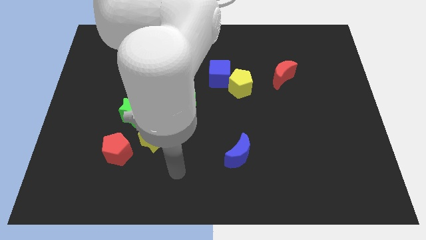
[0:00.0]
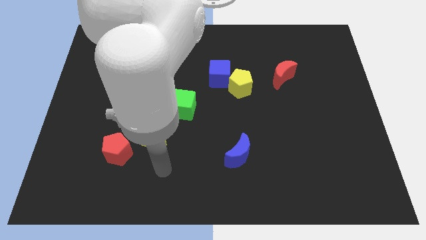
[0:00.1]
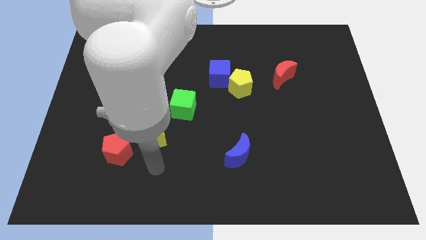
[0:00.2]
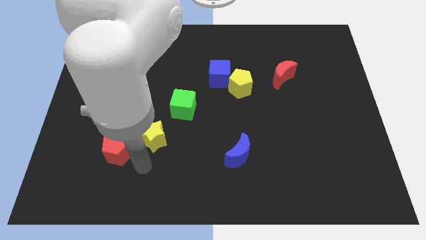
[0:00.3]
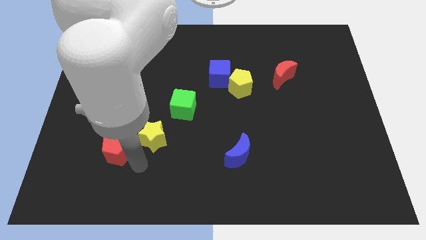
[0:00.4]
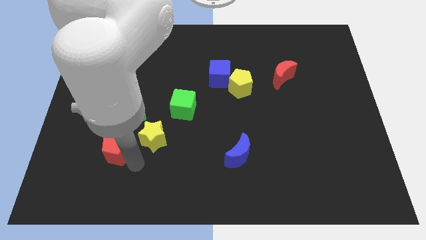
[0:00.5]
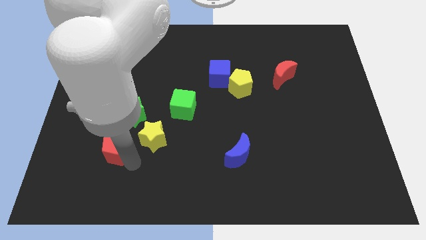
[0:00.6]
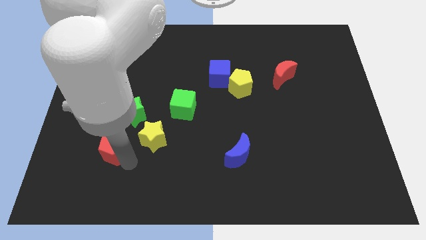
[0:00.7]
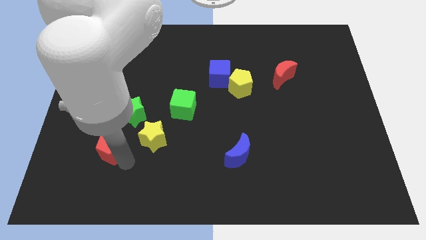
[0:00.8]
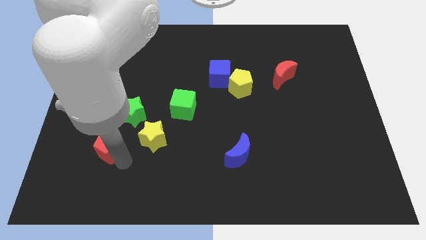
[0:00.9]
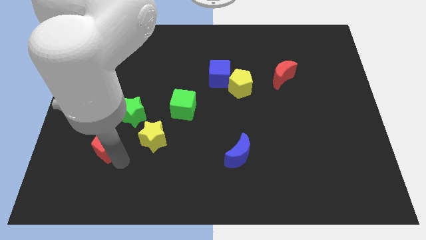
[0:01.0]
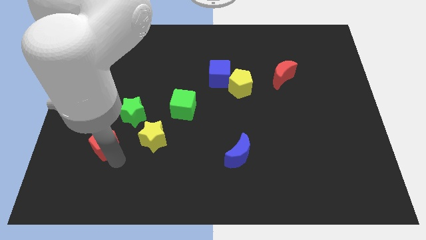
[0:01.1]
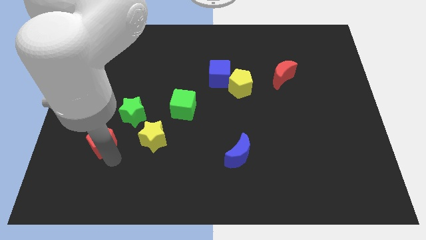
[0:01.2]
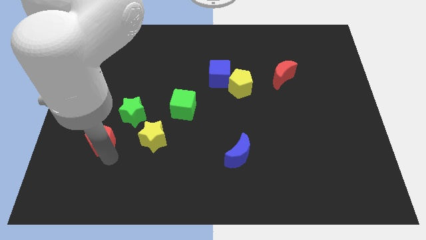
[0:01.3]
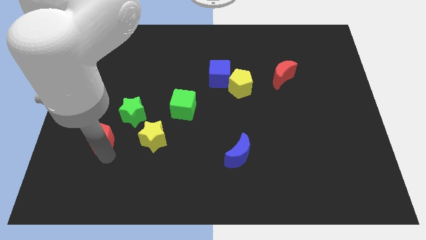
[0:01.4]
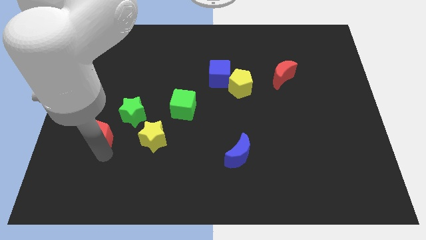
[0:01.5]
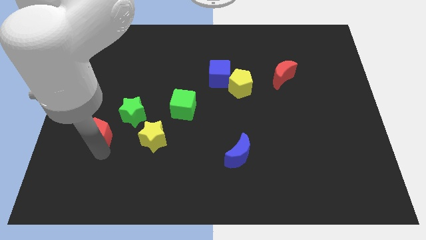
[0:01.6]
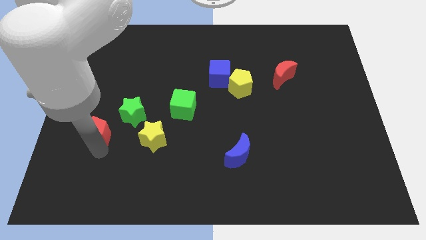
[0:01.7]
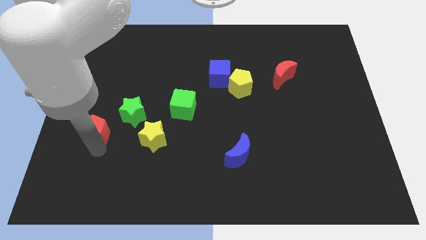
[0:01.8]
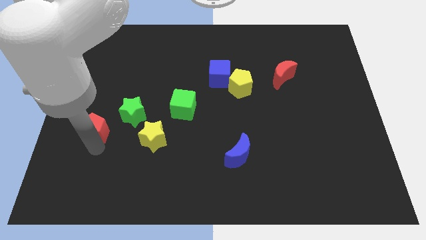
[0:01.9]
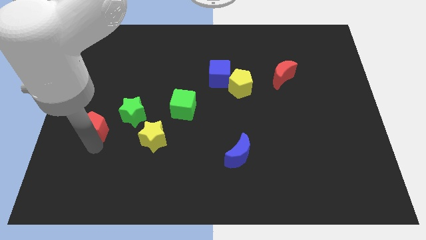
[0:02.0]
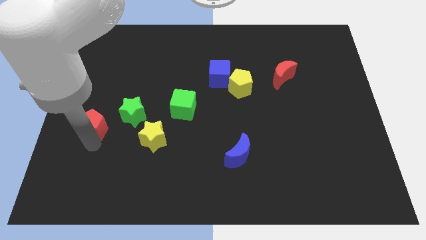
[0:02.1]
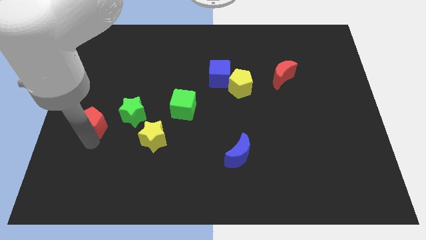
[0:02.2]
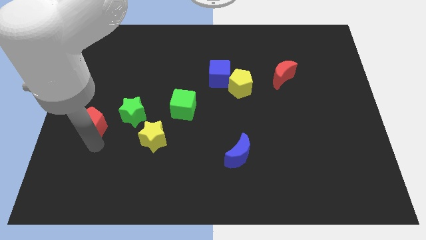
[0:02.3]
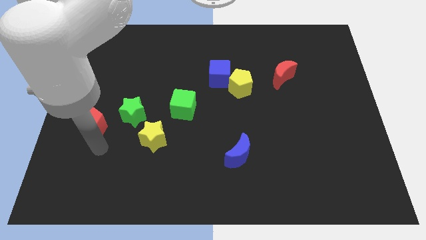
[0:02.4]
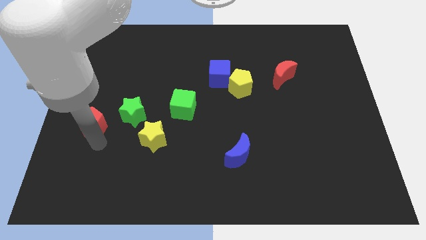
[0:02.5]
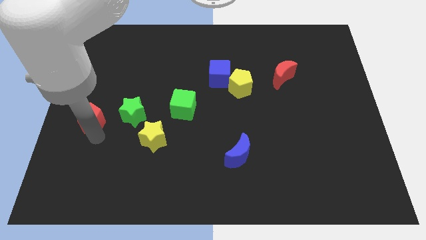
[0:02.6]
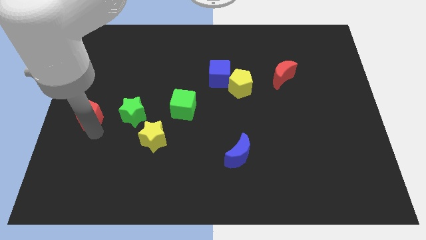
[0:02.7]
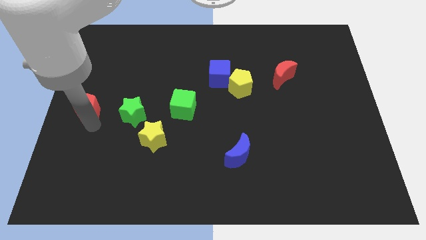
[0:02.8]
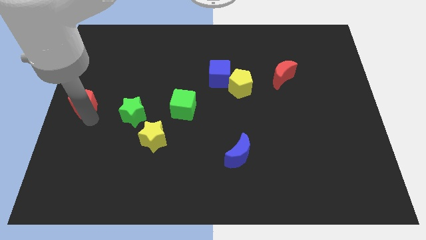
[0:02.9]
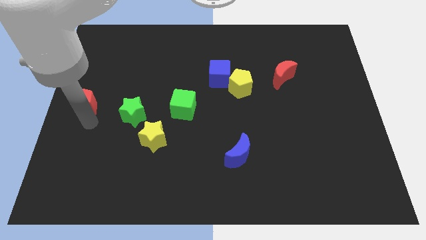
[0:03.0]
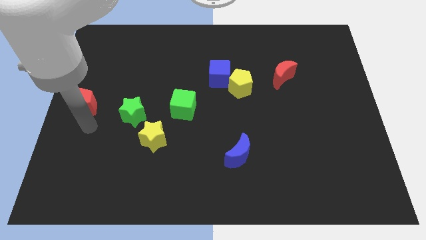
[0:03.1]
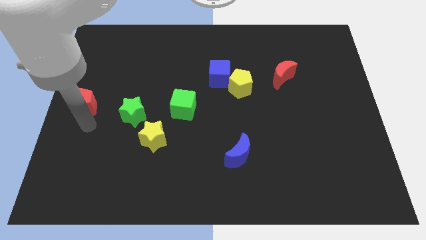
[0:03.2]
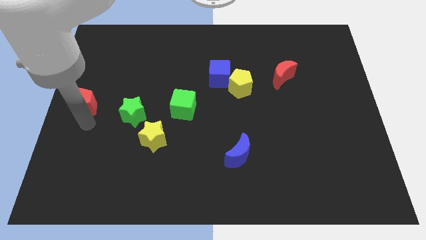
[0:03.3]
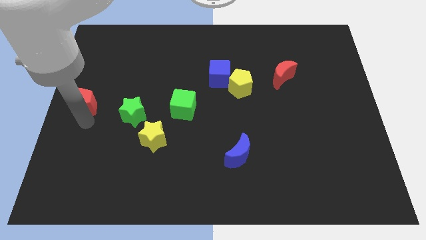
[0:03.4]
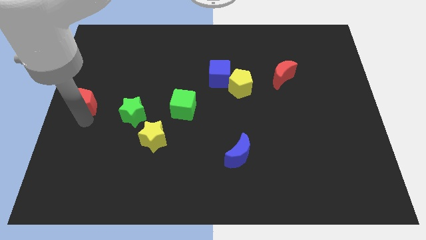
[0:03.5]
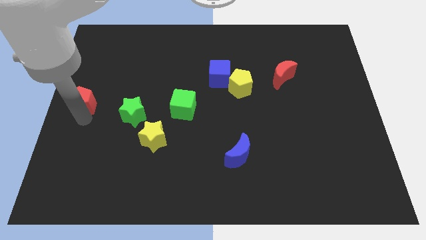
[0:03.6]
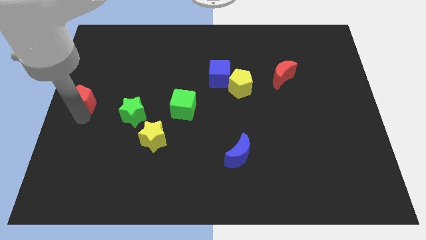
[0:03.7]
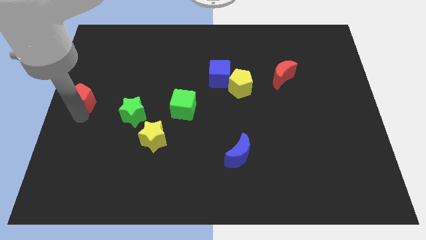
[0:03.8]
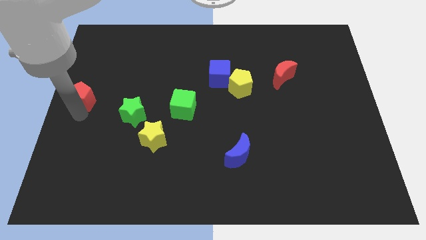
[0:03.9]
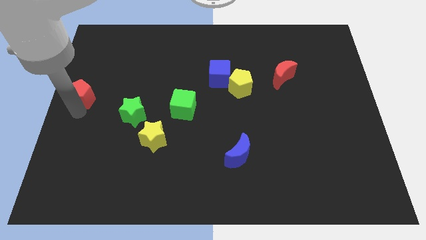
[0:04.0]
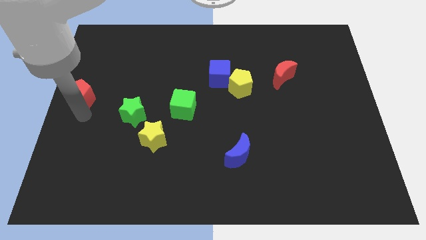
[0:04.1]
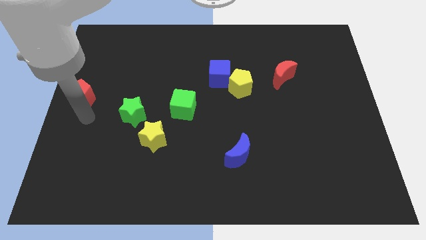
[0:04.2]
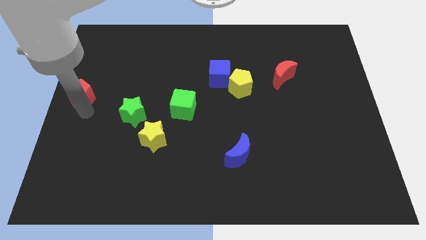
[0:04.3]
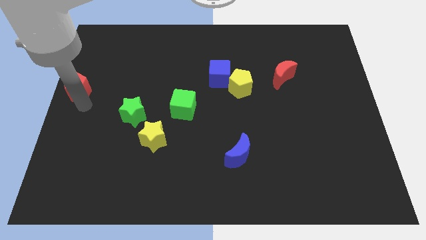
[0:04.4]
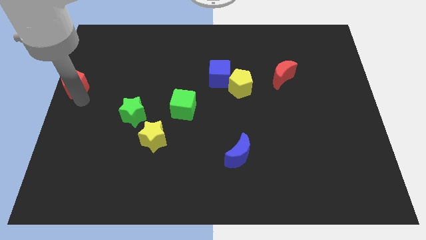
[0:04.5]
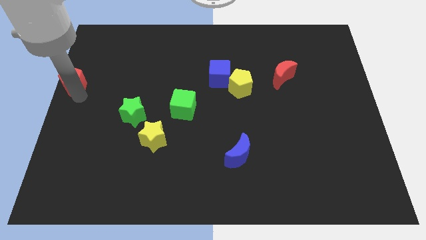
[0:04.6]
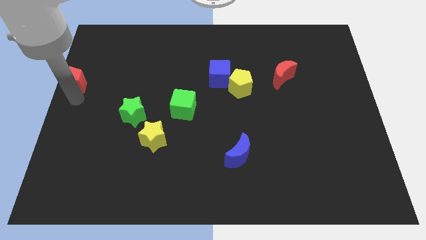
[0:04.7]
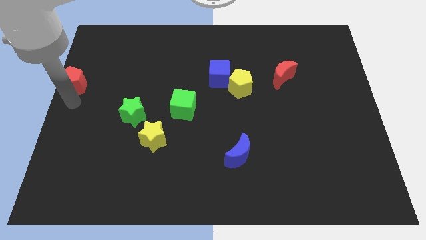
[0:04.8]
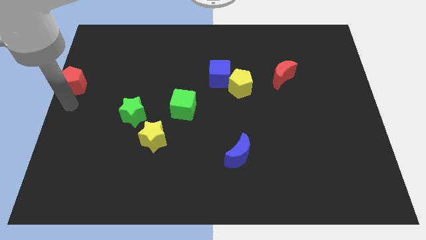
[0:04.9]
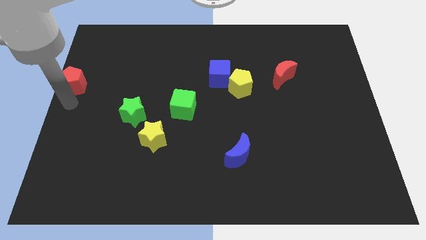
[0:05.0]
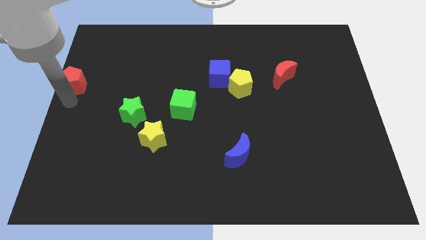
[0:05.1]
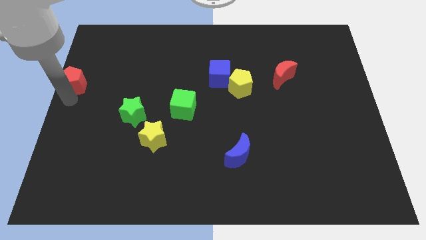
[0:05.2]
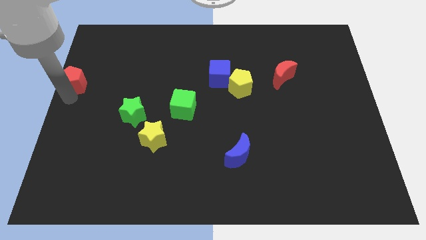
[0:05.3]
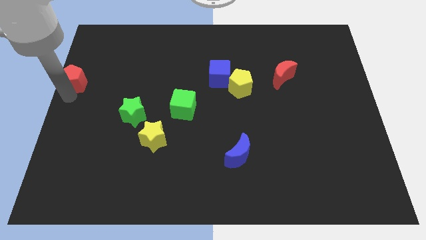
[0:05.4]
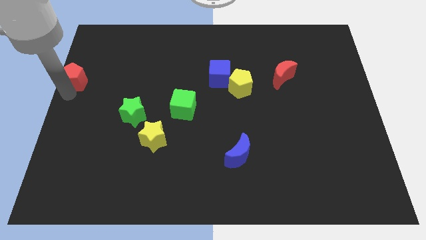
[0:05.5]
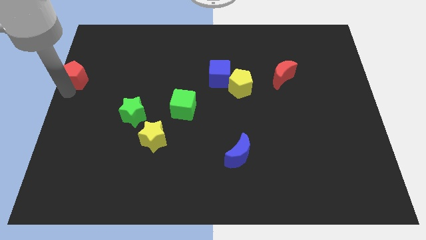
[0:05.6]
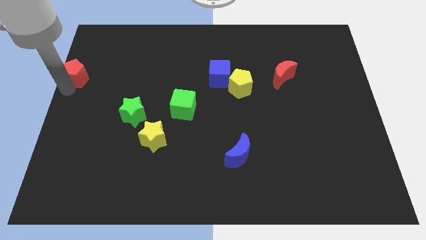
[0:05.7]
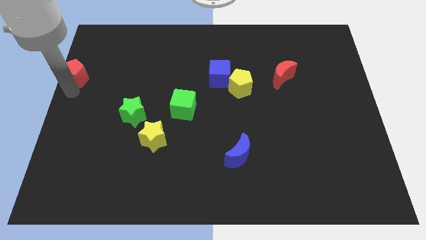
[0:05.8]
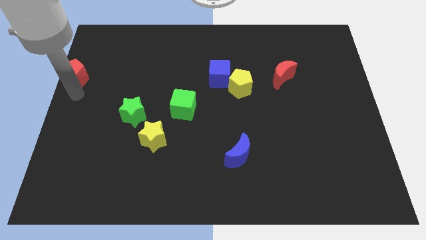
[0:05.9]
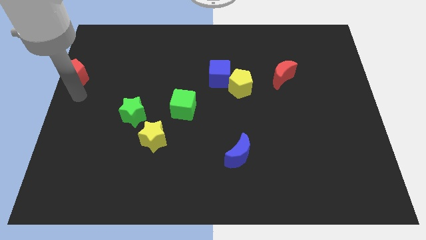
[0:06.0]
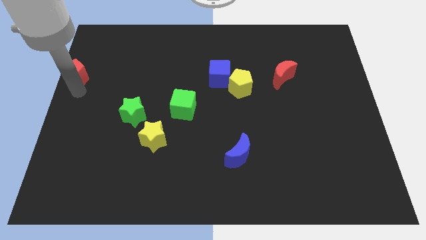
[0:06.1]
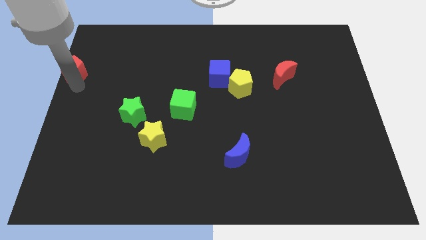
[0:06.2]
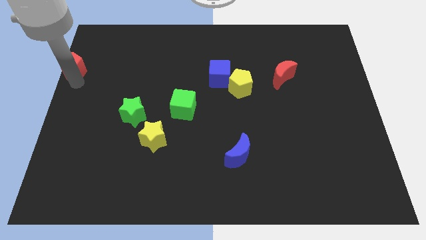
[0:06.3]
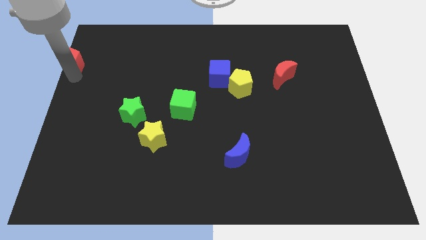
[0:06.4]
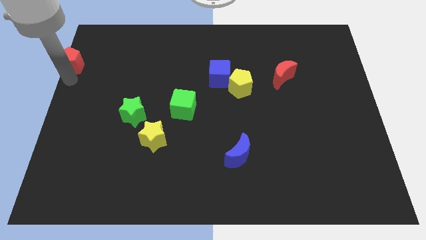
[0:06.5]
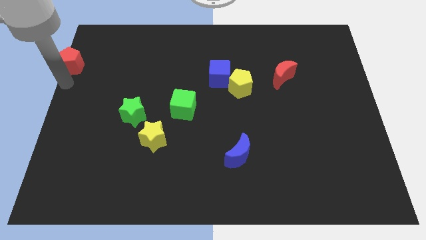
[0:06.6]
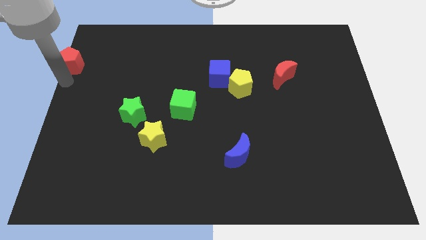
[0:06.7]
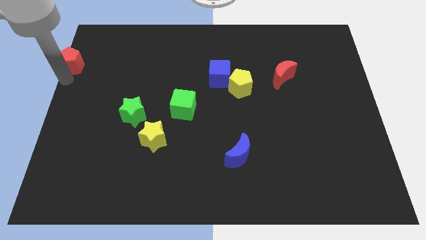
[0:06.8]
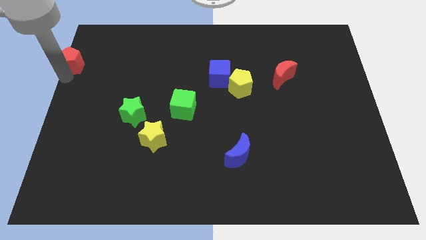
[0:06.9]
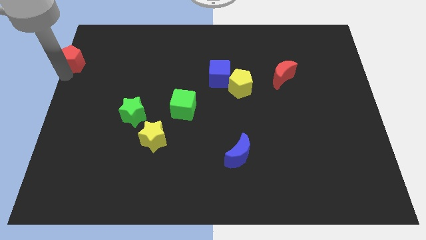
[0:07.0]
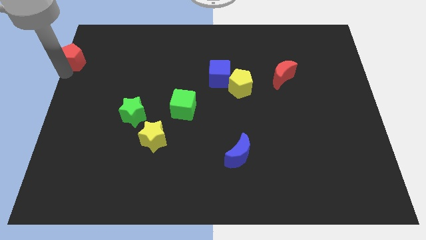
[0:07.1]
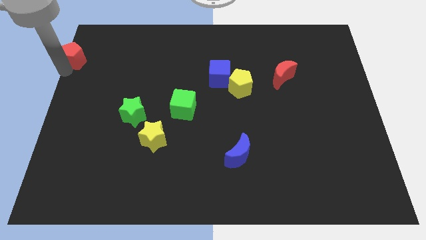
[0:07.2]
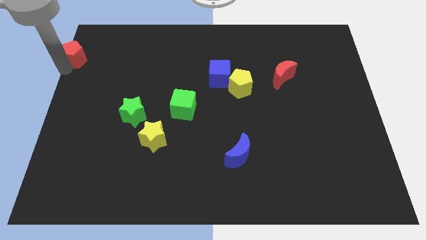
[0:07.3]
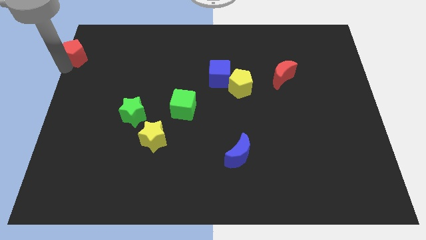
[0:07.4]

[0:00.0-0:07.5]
move the red pentagon to the top left
